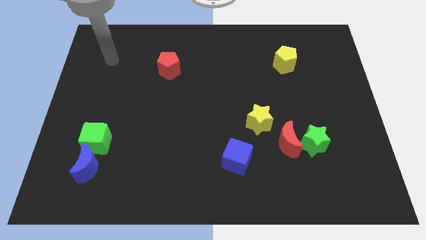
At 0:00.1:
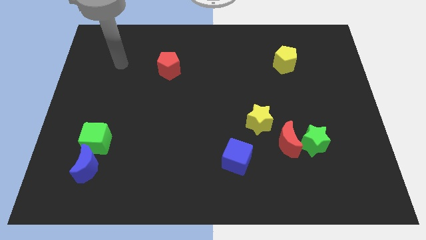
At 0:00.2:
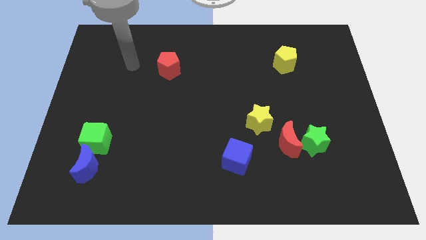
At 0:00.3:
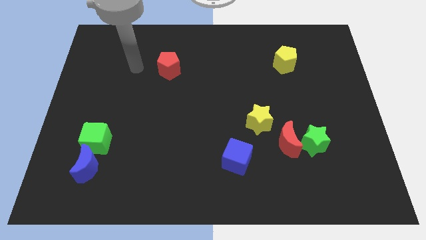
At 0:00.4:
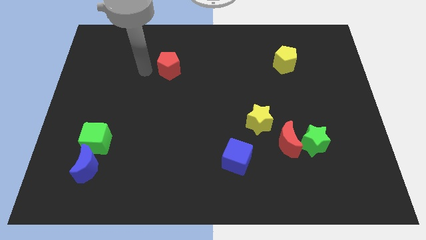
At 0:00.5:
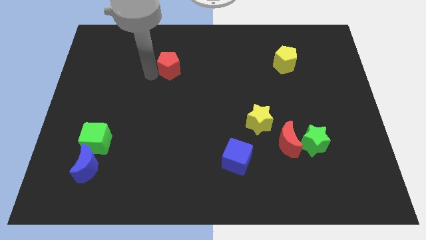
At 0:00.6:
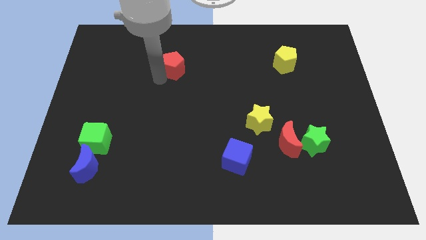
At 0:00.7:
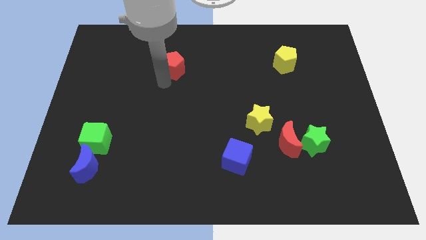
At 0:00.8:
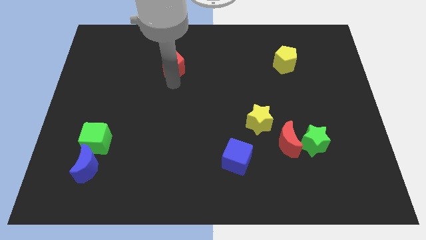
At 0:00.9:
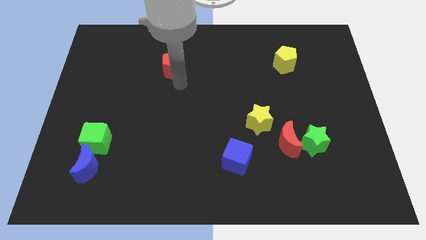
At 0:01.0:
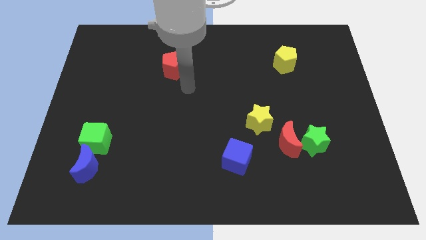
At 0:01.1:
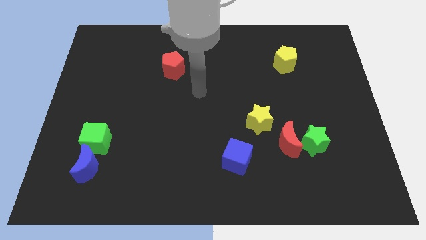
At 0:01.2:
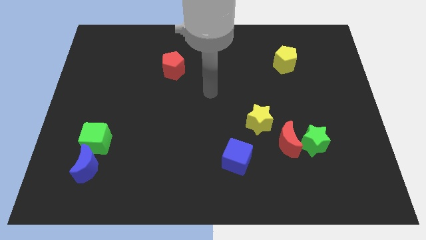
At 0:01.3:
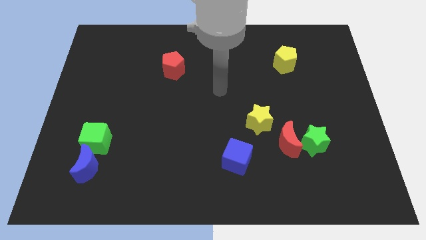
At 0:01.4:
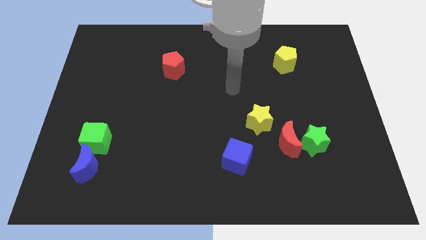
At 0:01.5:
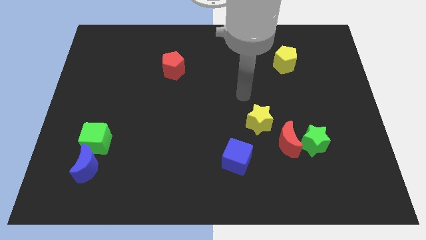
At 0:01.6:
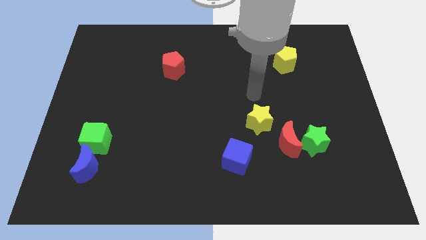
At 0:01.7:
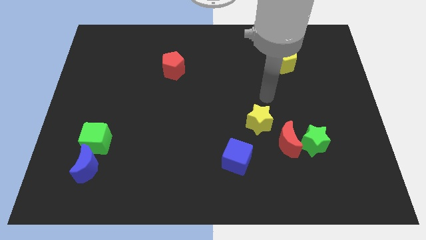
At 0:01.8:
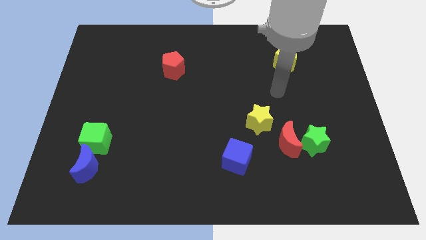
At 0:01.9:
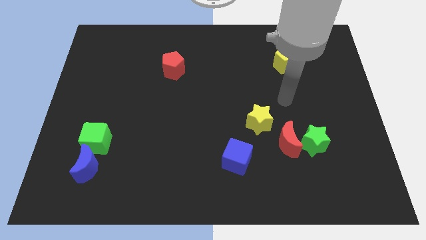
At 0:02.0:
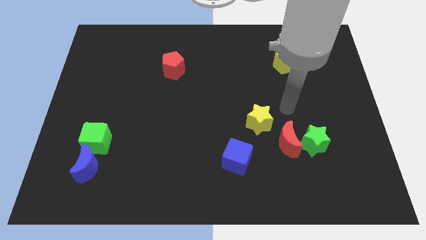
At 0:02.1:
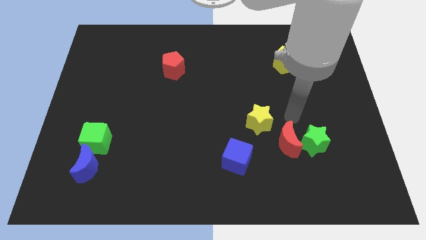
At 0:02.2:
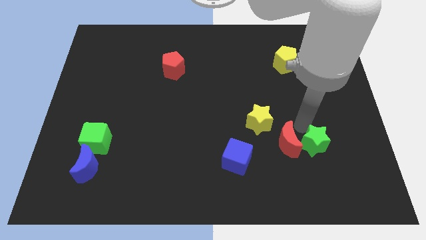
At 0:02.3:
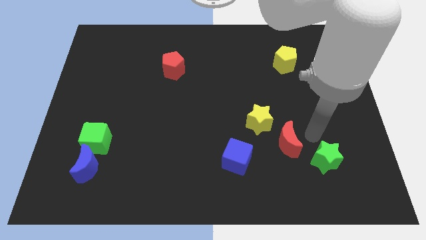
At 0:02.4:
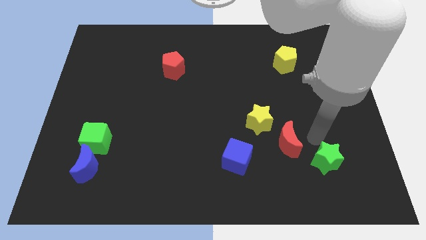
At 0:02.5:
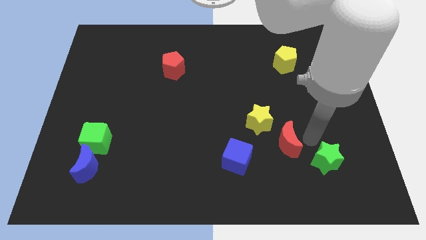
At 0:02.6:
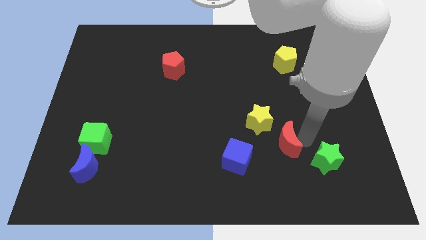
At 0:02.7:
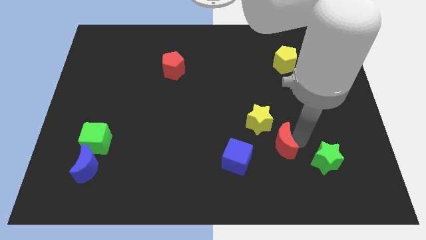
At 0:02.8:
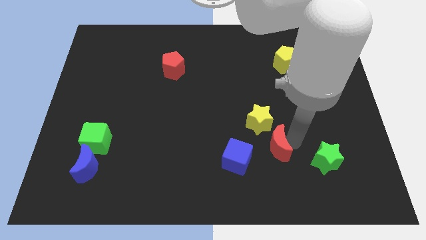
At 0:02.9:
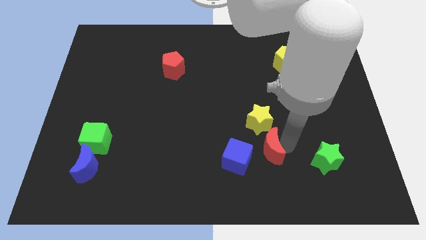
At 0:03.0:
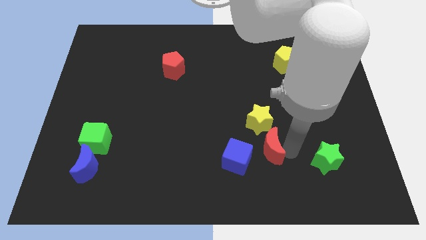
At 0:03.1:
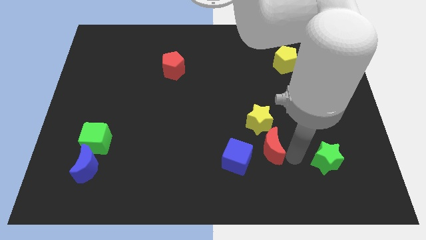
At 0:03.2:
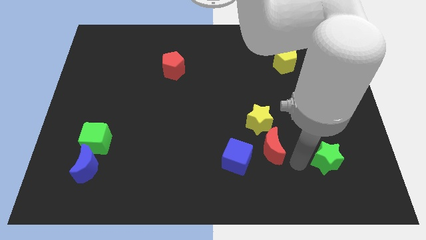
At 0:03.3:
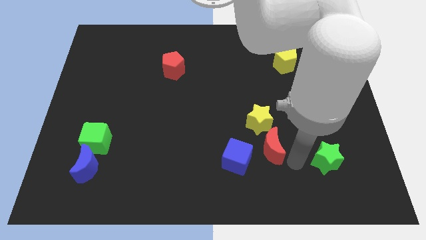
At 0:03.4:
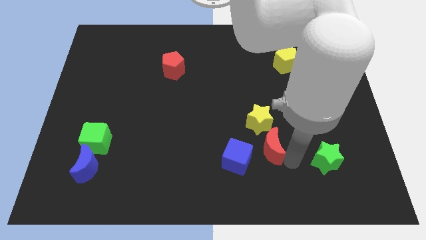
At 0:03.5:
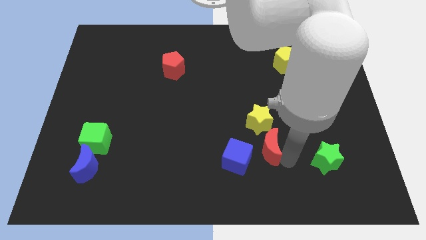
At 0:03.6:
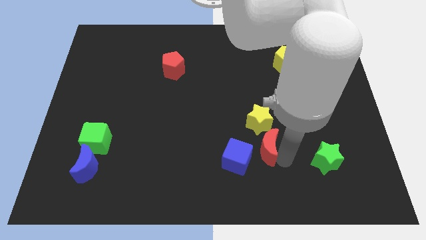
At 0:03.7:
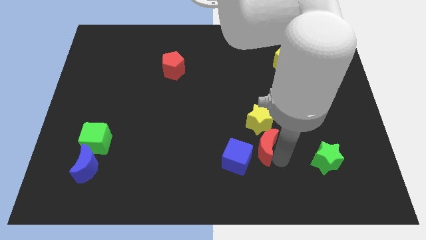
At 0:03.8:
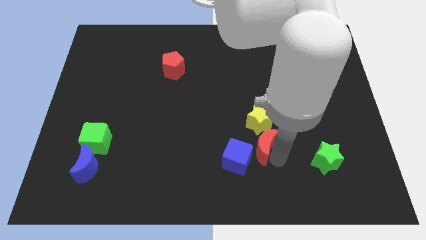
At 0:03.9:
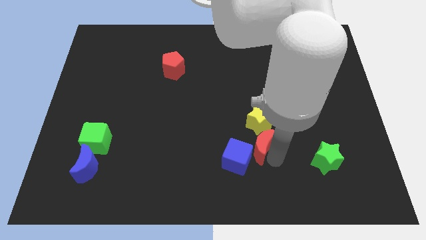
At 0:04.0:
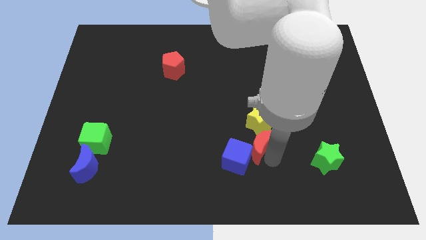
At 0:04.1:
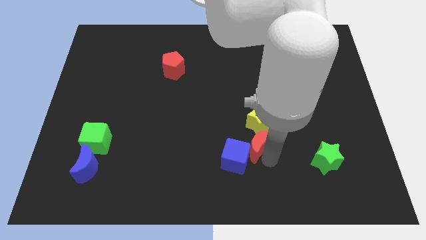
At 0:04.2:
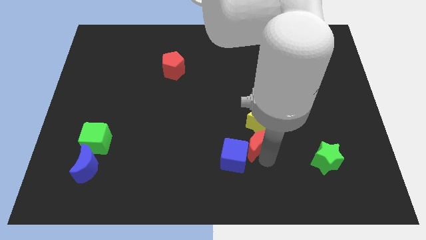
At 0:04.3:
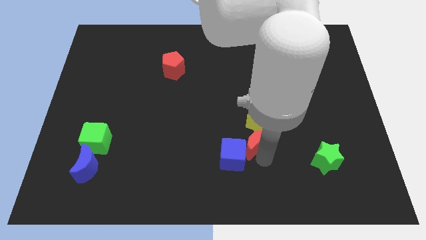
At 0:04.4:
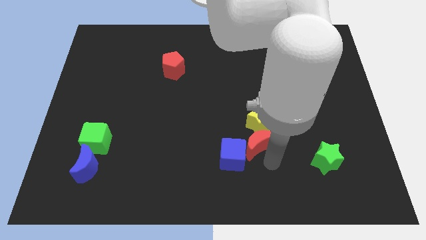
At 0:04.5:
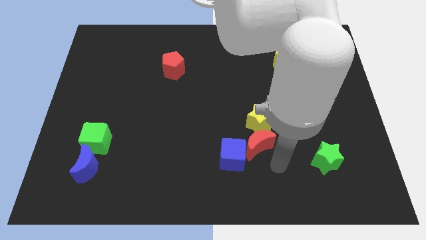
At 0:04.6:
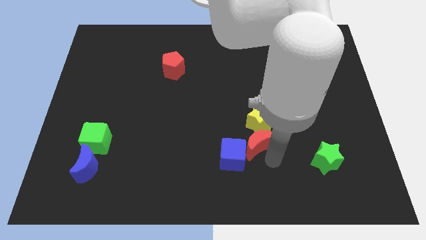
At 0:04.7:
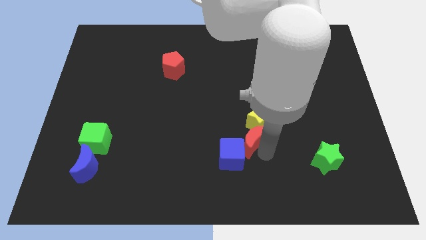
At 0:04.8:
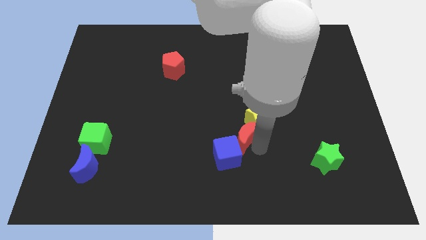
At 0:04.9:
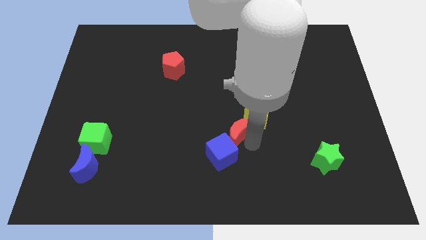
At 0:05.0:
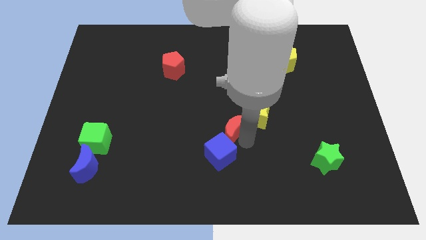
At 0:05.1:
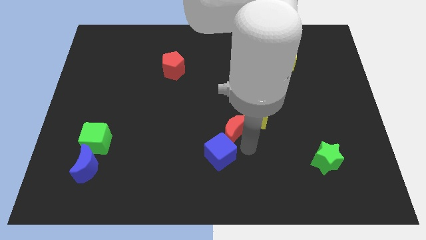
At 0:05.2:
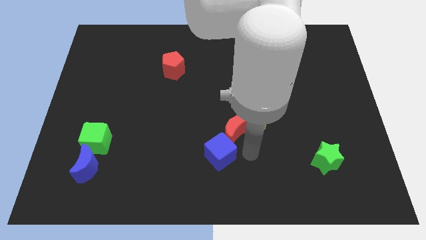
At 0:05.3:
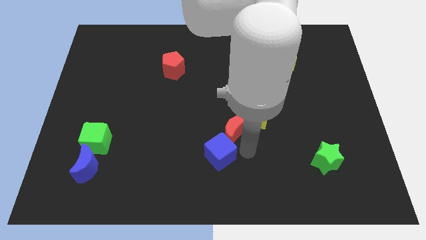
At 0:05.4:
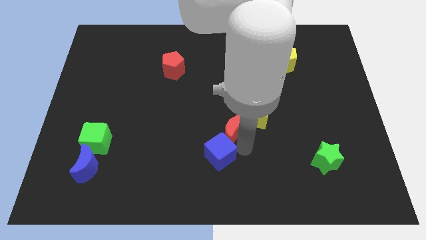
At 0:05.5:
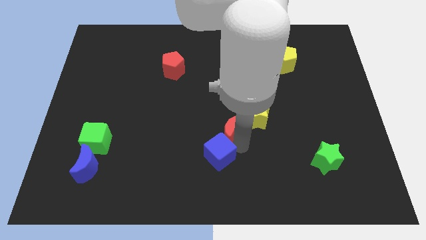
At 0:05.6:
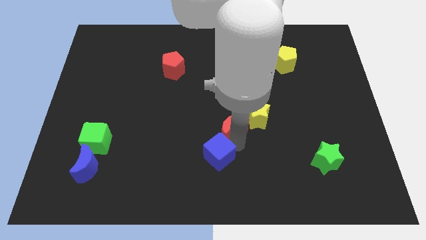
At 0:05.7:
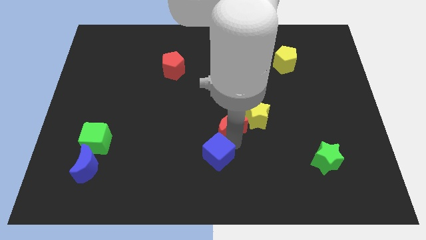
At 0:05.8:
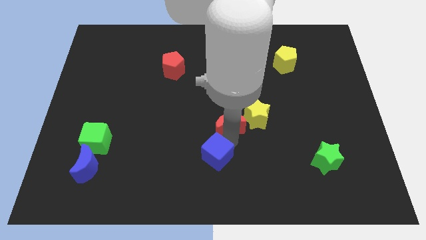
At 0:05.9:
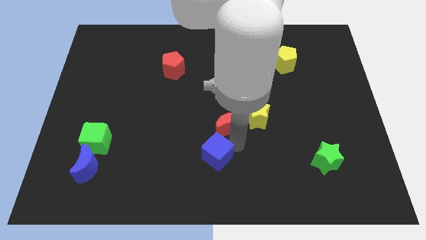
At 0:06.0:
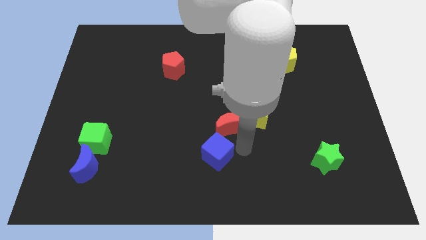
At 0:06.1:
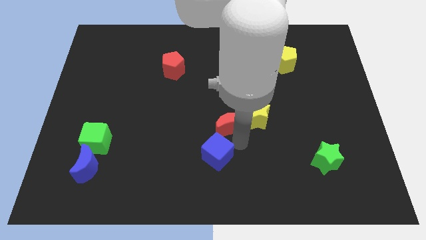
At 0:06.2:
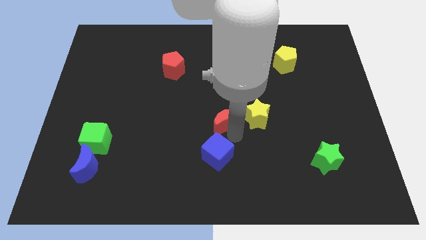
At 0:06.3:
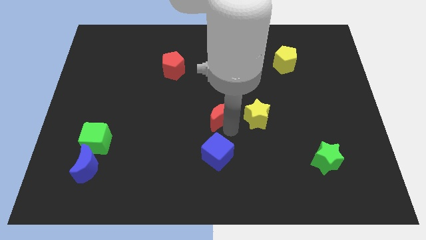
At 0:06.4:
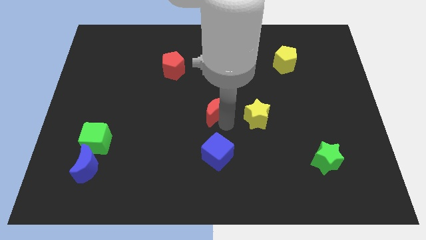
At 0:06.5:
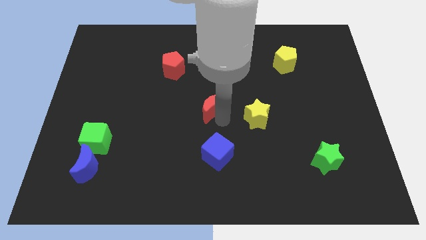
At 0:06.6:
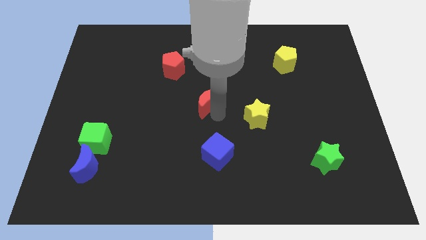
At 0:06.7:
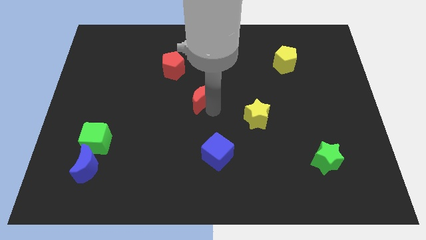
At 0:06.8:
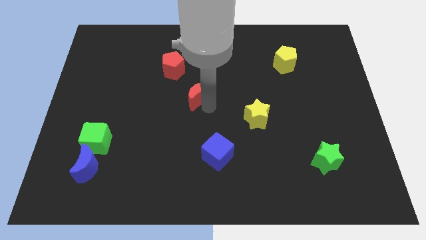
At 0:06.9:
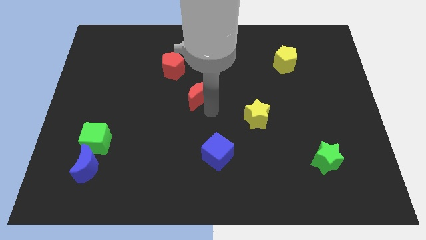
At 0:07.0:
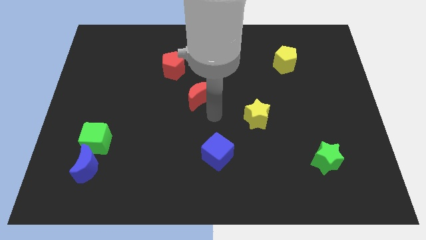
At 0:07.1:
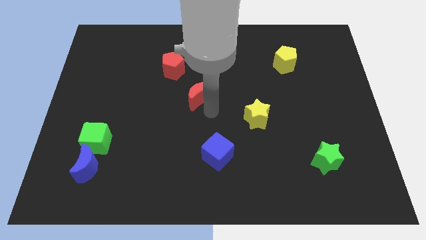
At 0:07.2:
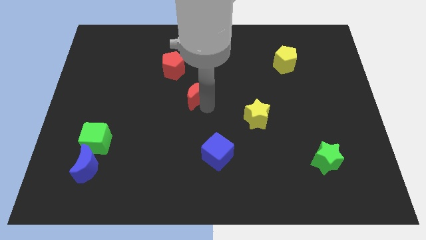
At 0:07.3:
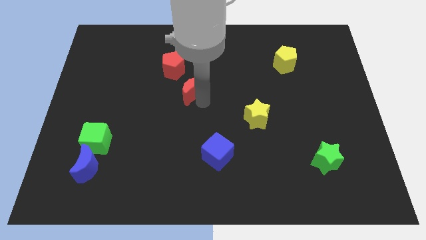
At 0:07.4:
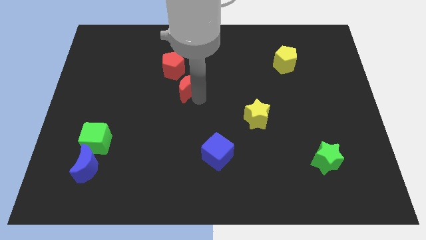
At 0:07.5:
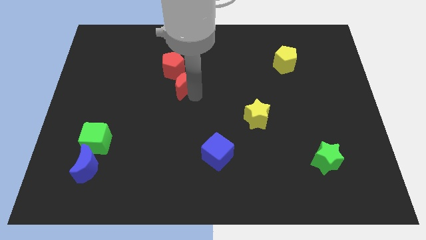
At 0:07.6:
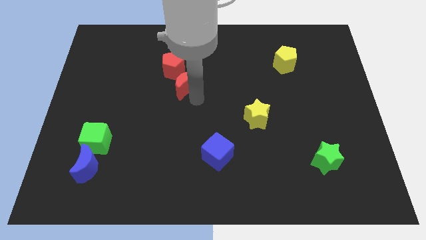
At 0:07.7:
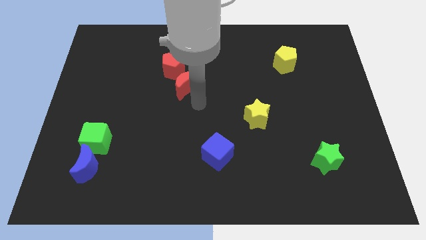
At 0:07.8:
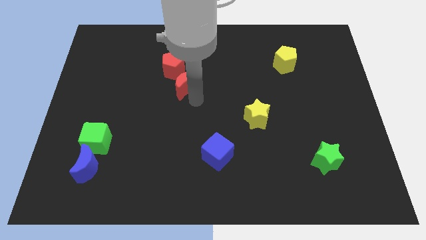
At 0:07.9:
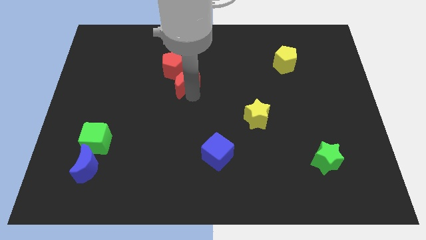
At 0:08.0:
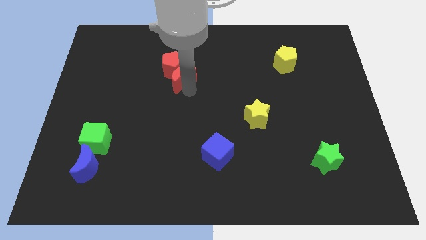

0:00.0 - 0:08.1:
move the red moon next to the red pentagon
